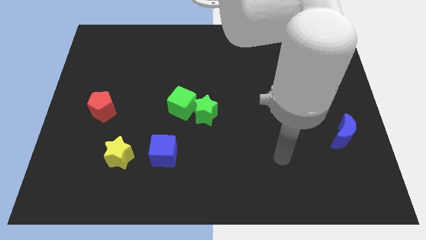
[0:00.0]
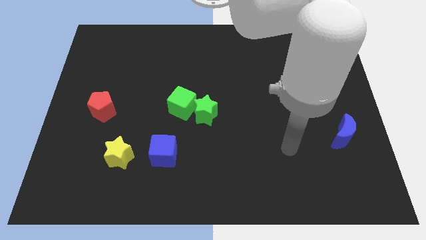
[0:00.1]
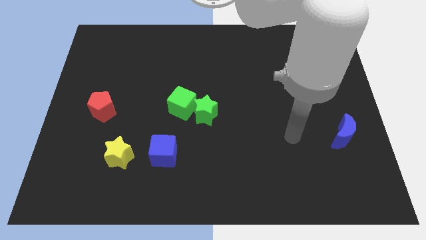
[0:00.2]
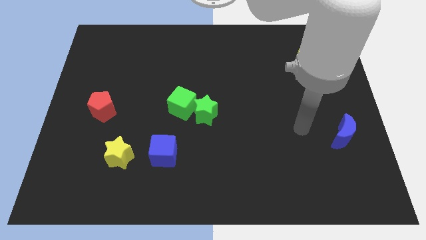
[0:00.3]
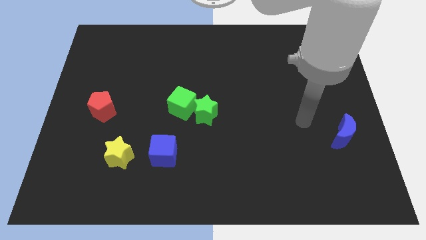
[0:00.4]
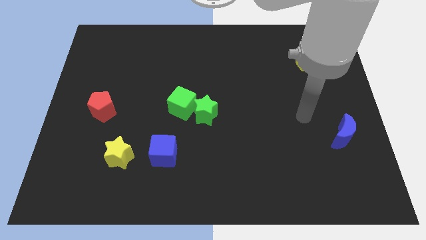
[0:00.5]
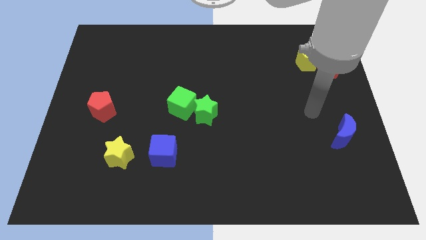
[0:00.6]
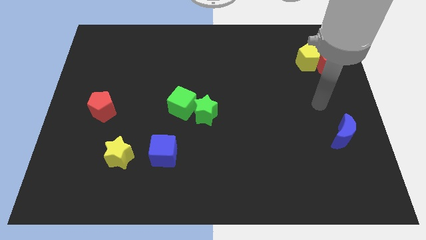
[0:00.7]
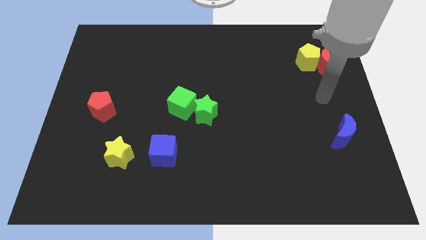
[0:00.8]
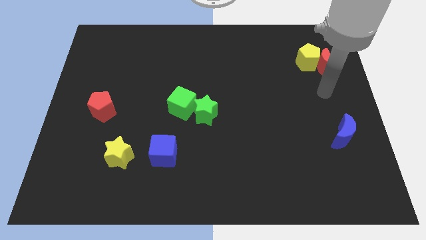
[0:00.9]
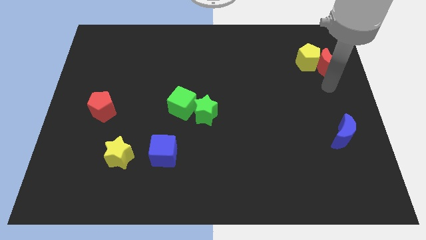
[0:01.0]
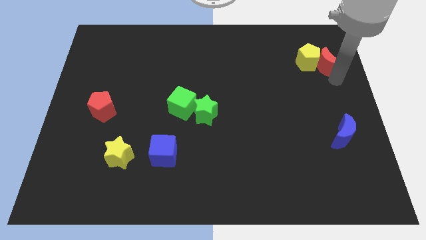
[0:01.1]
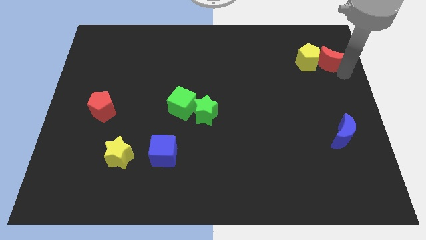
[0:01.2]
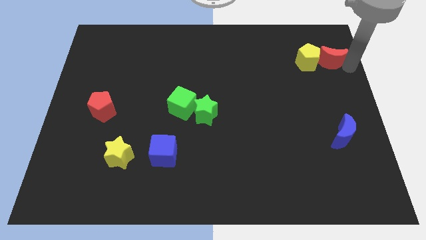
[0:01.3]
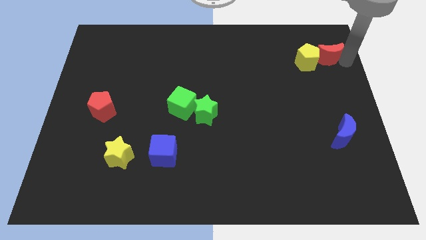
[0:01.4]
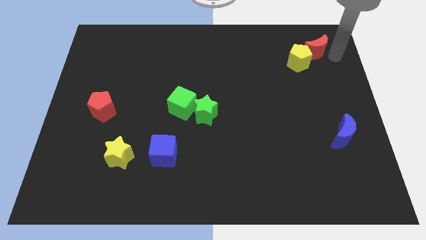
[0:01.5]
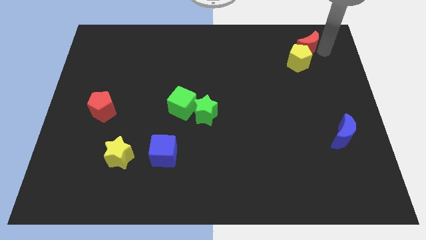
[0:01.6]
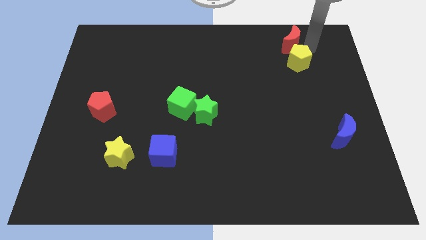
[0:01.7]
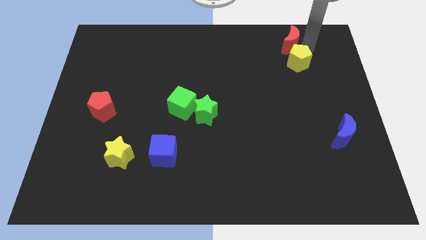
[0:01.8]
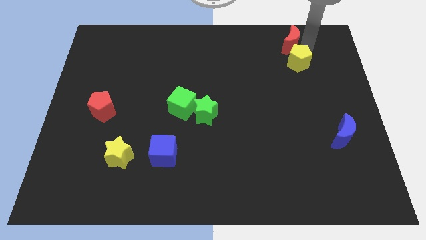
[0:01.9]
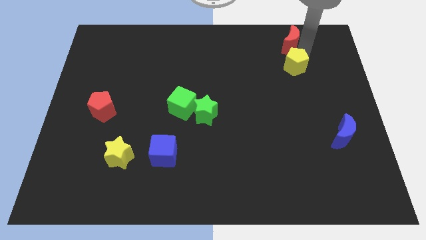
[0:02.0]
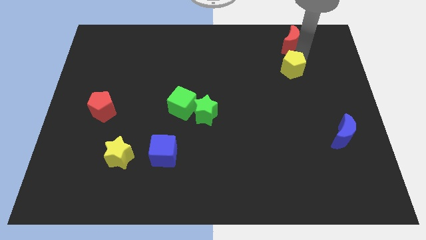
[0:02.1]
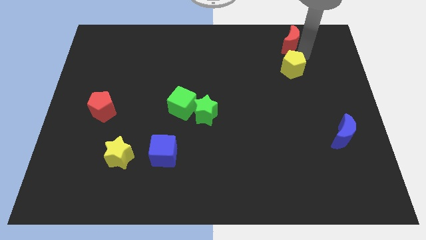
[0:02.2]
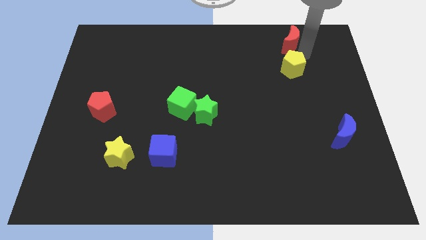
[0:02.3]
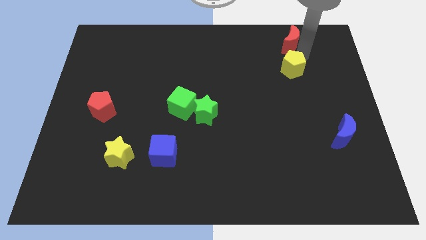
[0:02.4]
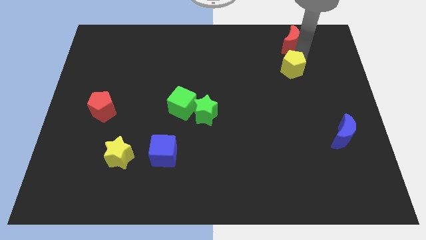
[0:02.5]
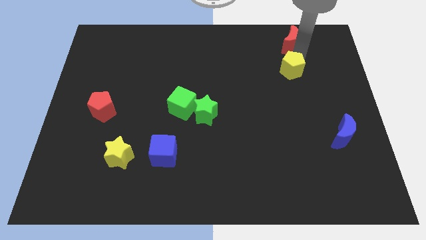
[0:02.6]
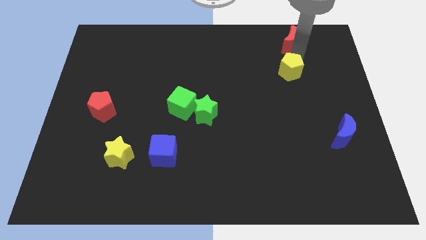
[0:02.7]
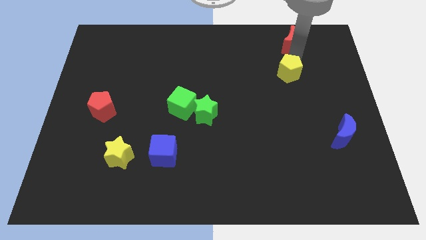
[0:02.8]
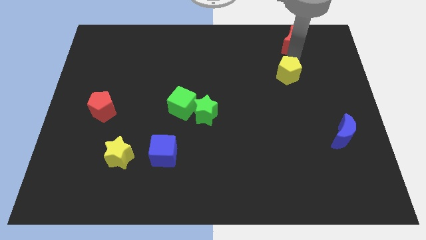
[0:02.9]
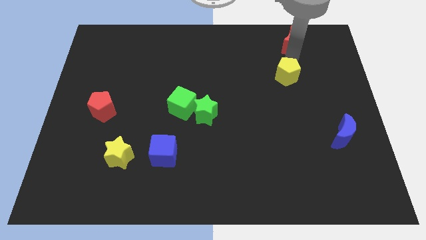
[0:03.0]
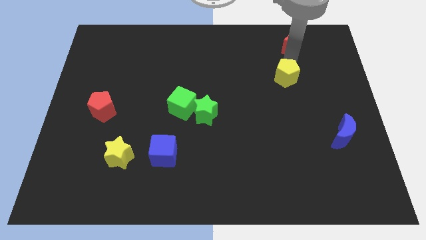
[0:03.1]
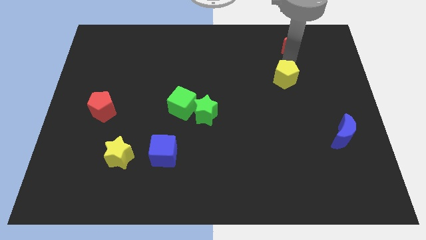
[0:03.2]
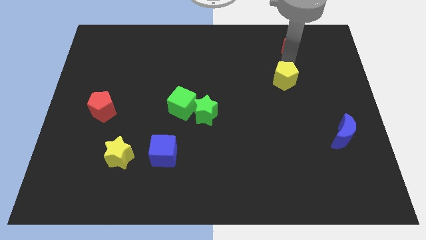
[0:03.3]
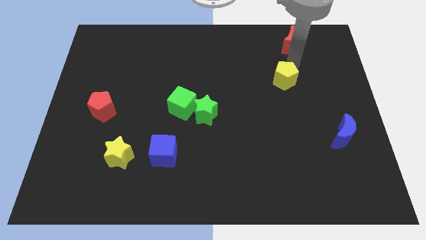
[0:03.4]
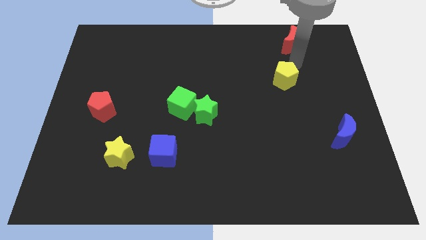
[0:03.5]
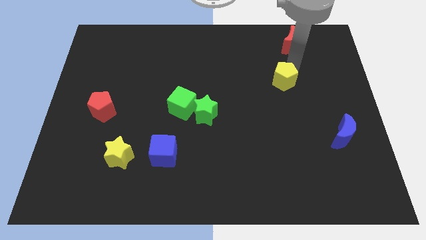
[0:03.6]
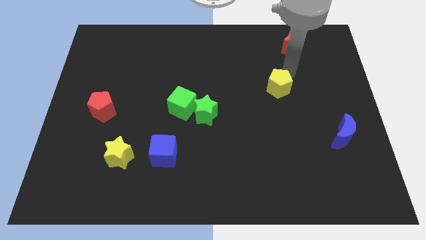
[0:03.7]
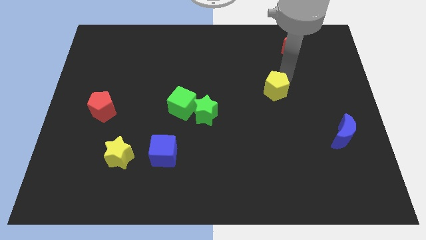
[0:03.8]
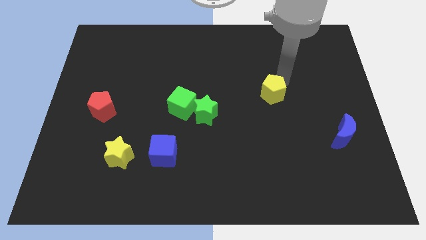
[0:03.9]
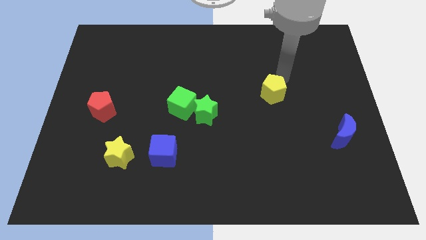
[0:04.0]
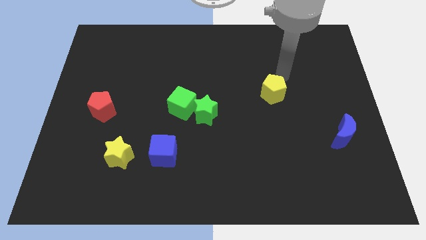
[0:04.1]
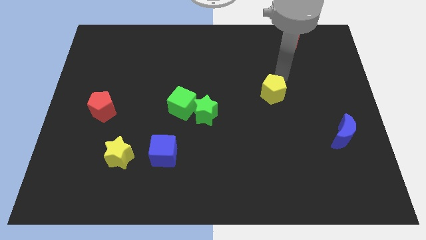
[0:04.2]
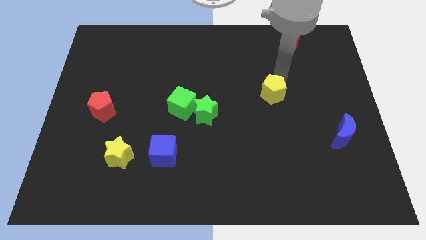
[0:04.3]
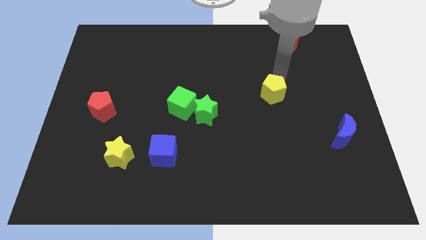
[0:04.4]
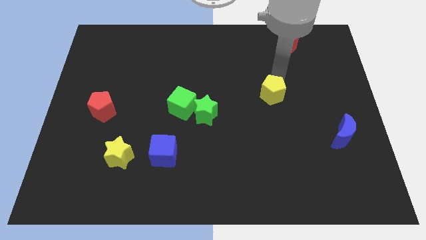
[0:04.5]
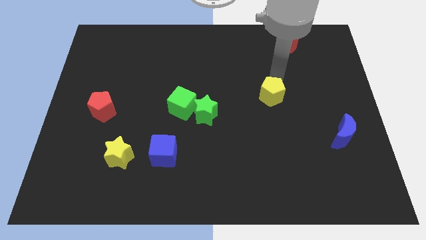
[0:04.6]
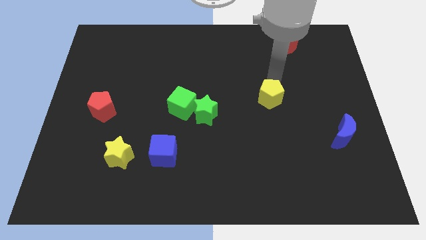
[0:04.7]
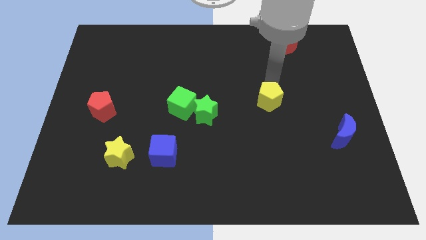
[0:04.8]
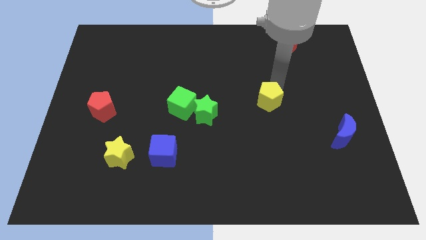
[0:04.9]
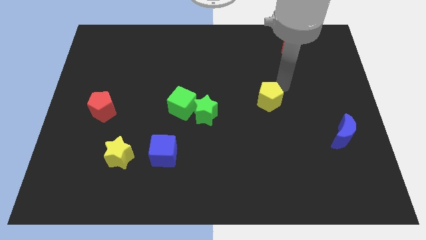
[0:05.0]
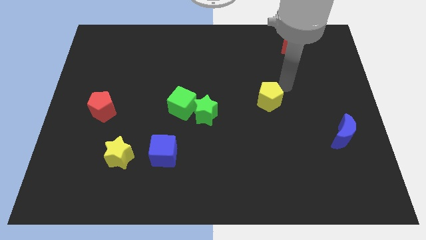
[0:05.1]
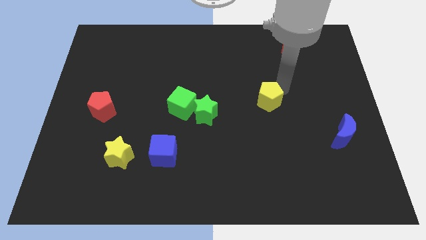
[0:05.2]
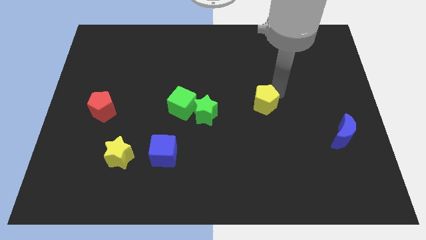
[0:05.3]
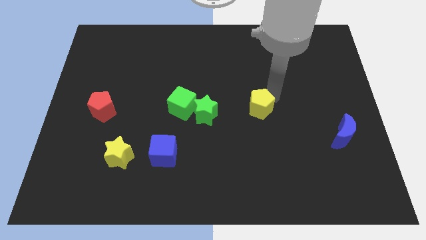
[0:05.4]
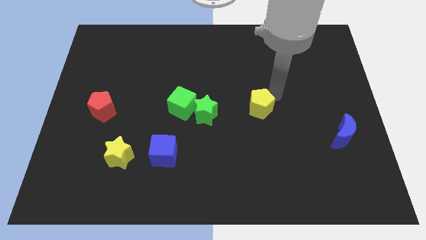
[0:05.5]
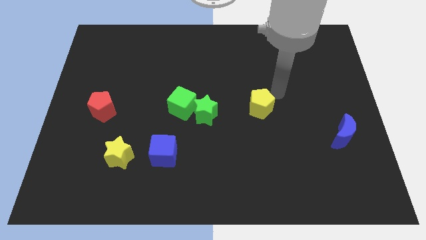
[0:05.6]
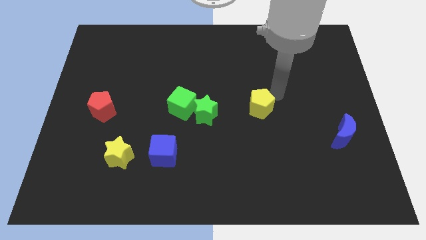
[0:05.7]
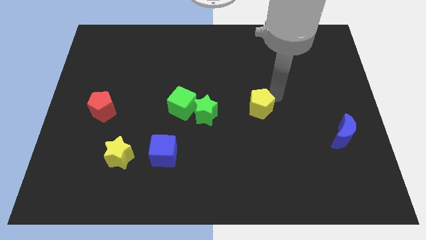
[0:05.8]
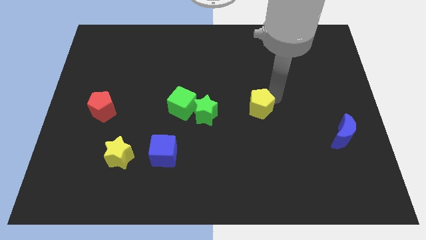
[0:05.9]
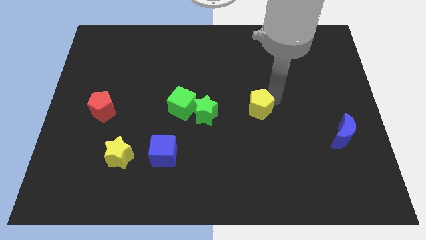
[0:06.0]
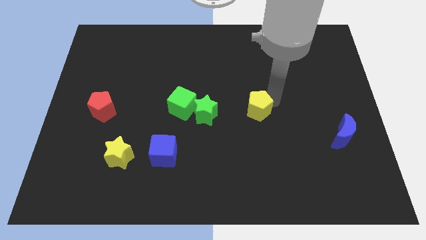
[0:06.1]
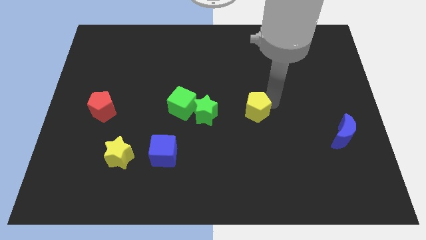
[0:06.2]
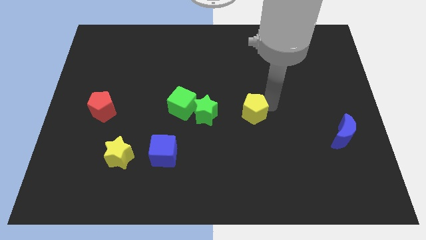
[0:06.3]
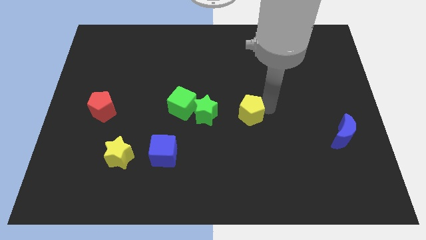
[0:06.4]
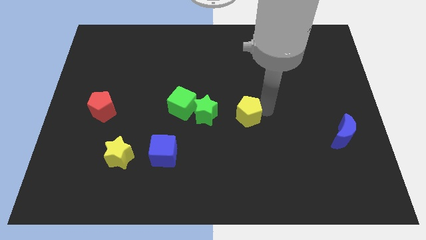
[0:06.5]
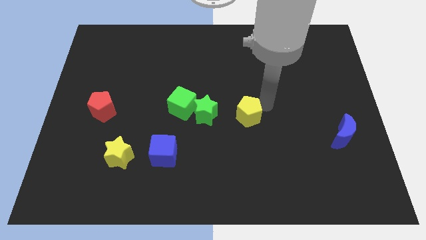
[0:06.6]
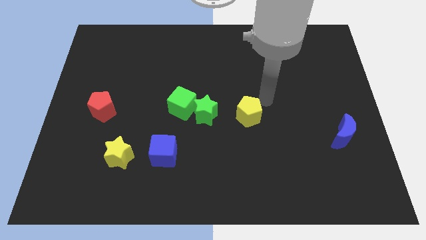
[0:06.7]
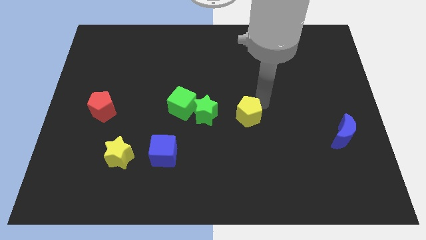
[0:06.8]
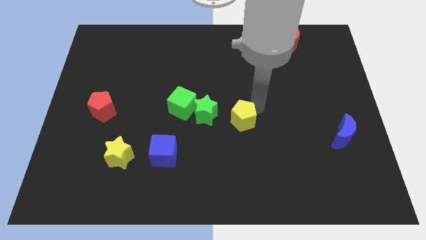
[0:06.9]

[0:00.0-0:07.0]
put the yellow pentagon to the bottom right of the green star

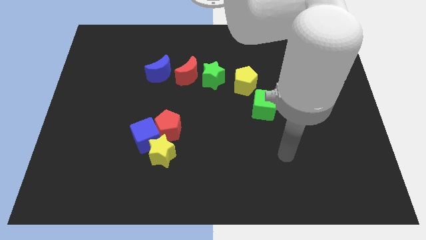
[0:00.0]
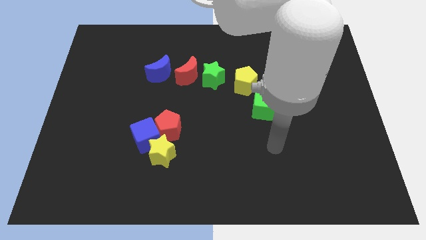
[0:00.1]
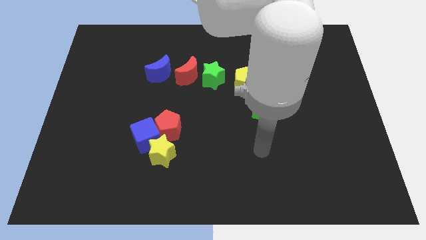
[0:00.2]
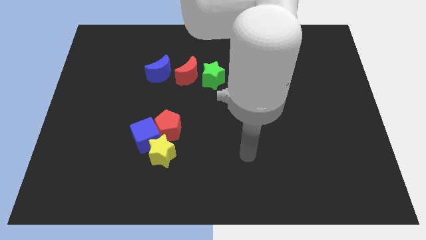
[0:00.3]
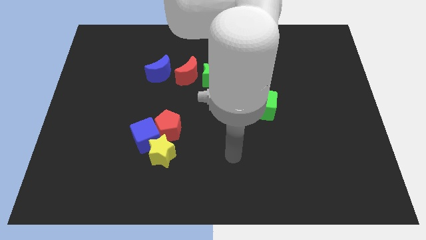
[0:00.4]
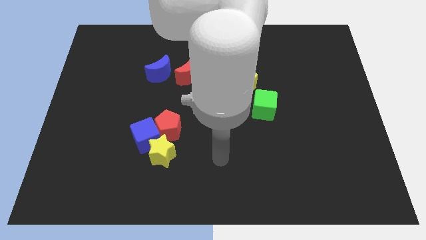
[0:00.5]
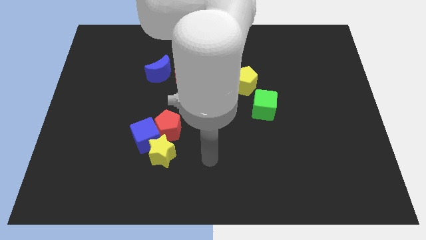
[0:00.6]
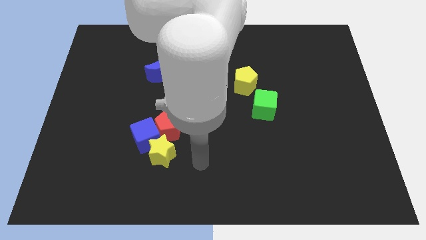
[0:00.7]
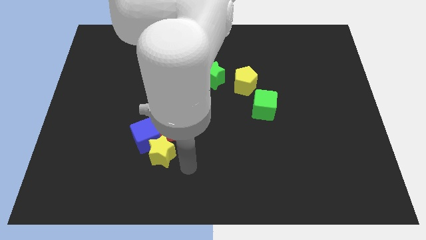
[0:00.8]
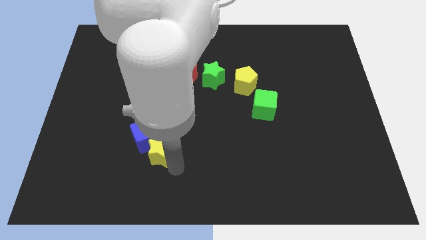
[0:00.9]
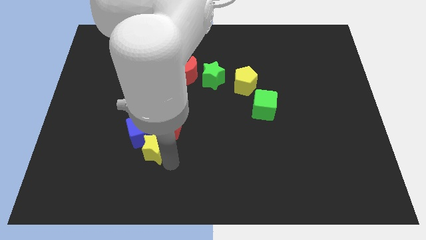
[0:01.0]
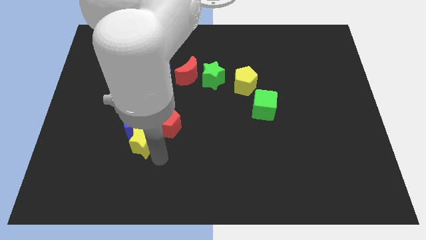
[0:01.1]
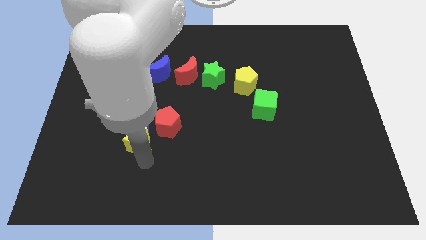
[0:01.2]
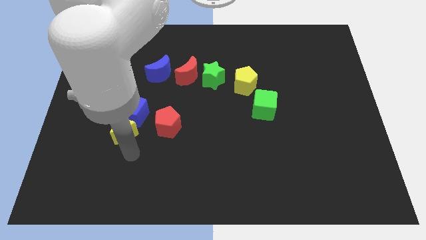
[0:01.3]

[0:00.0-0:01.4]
slide the blue cube to the bottom of the blue moon
